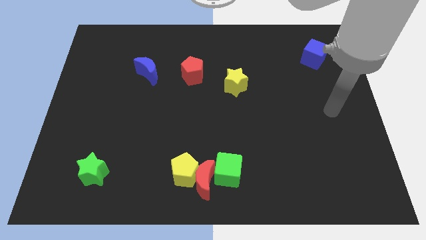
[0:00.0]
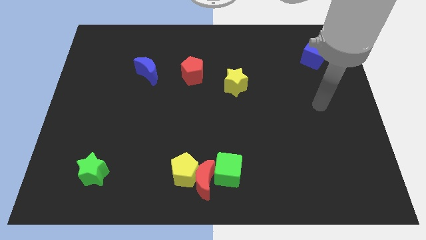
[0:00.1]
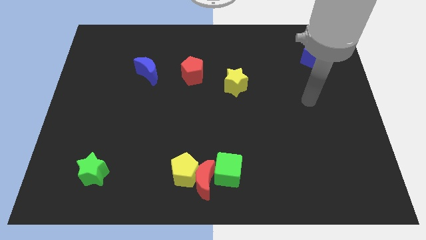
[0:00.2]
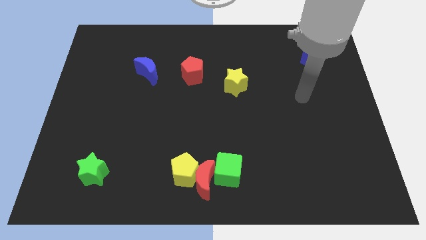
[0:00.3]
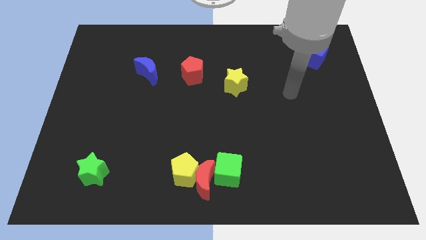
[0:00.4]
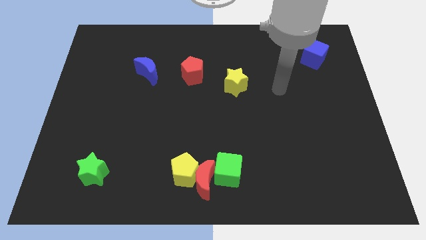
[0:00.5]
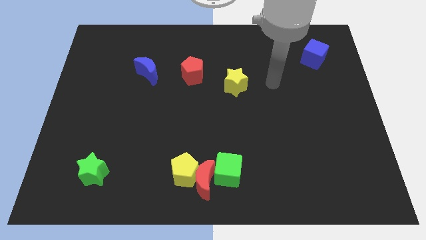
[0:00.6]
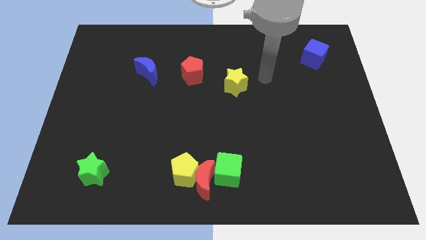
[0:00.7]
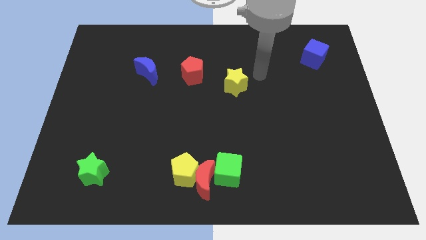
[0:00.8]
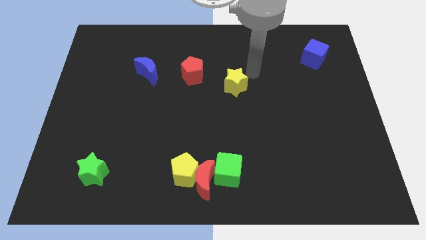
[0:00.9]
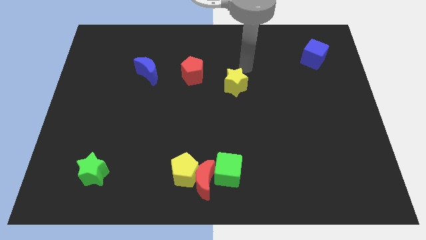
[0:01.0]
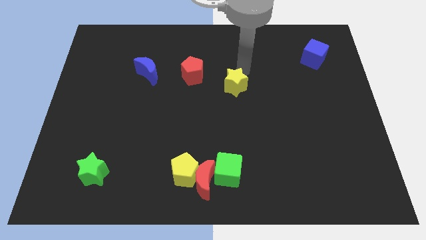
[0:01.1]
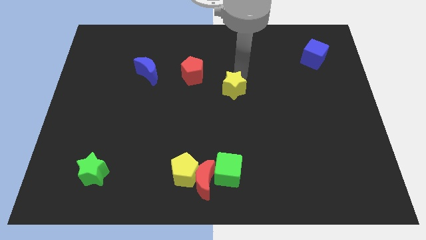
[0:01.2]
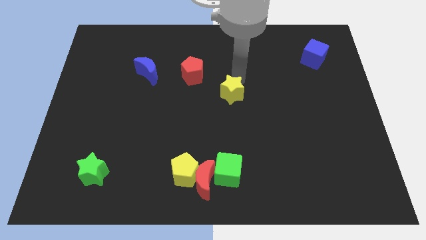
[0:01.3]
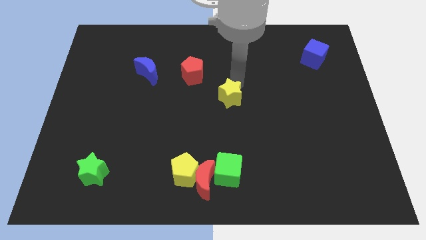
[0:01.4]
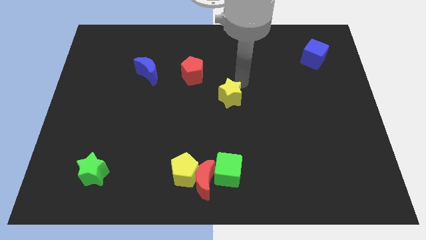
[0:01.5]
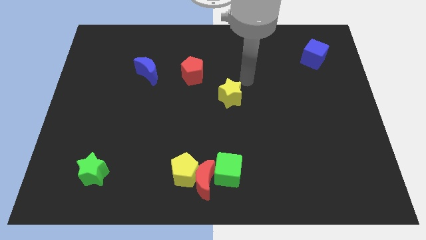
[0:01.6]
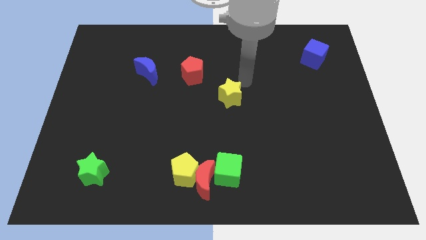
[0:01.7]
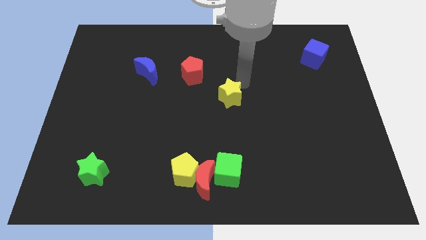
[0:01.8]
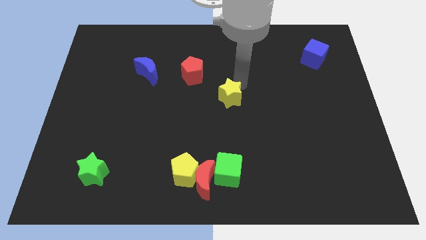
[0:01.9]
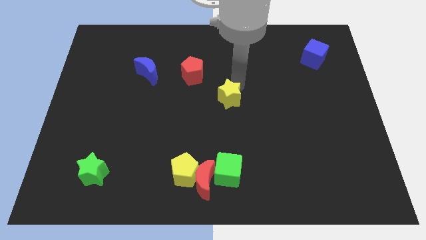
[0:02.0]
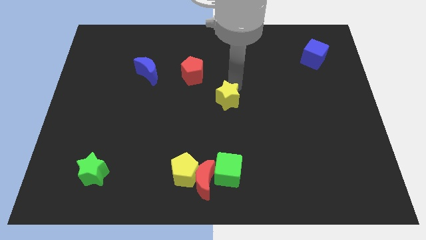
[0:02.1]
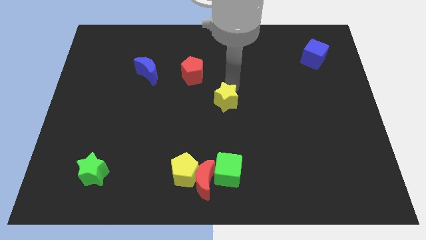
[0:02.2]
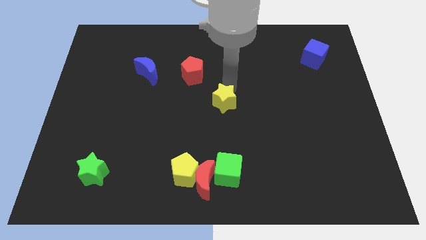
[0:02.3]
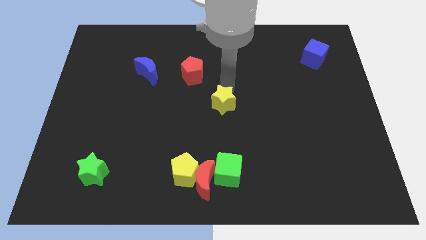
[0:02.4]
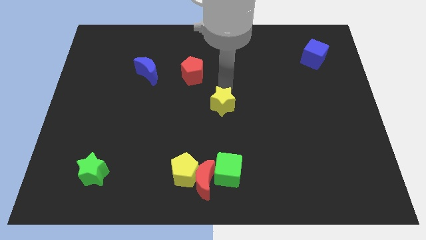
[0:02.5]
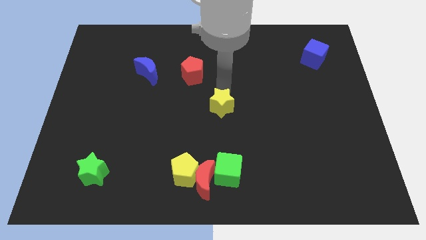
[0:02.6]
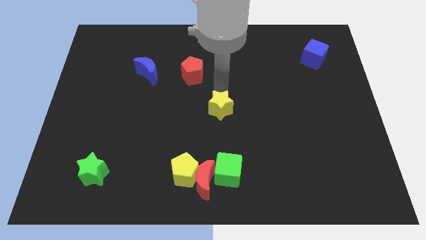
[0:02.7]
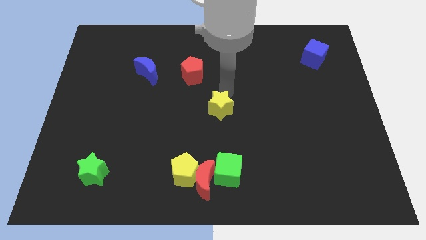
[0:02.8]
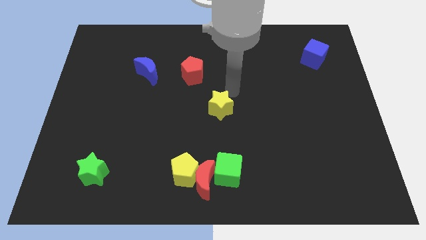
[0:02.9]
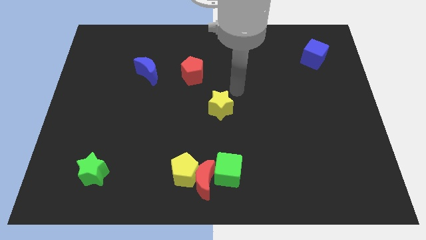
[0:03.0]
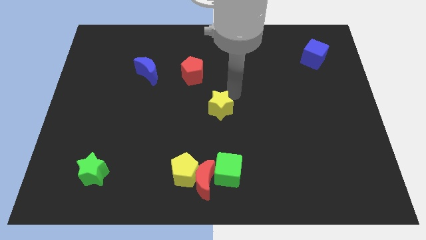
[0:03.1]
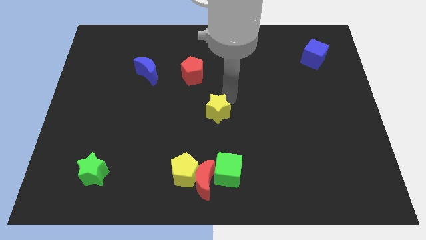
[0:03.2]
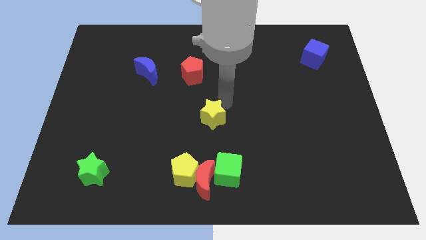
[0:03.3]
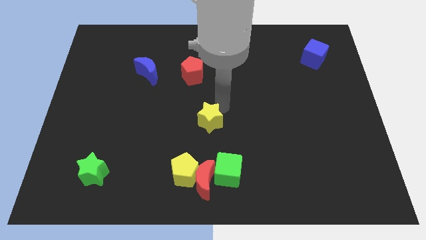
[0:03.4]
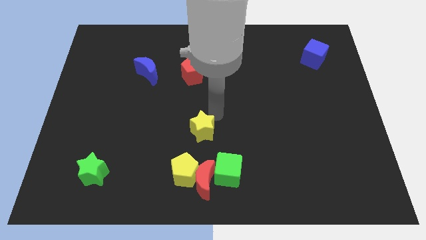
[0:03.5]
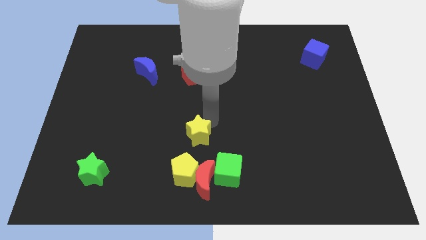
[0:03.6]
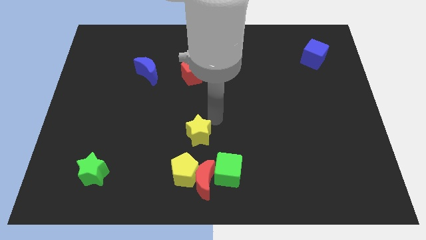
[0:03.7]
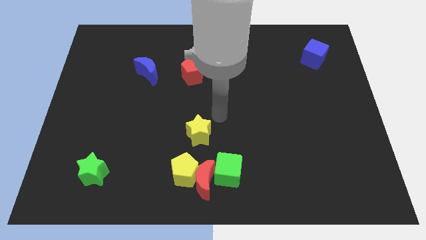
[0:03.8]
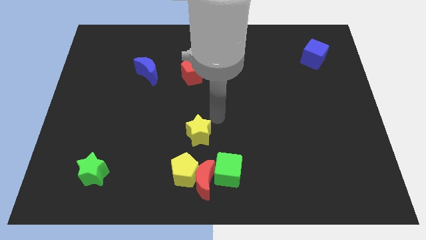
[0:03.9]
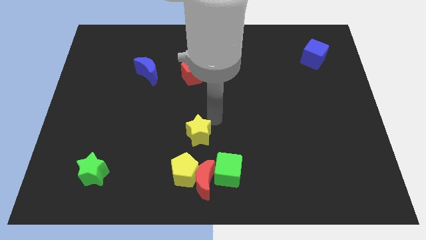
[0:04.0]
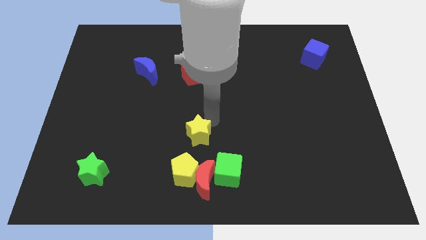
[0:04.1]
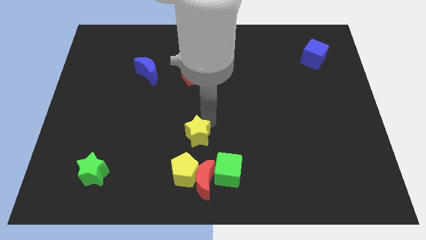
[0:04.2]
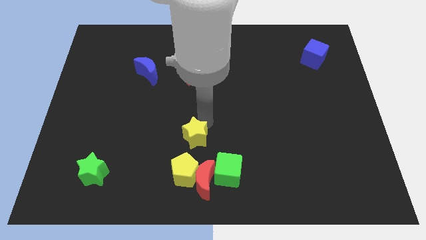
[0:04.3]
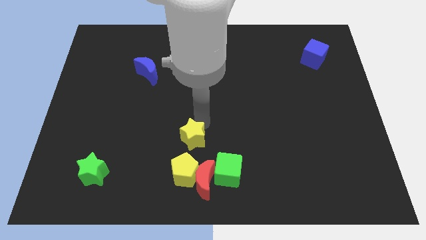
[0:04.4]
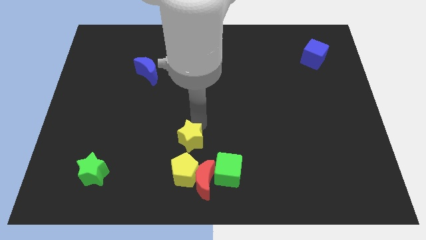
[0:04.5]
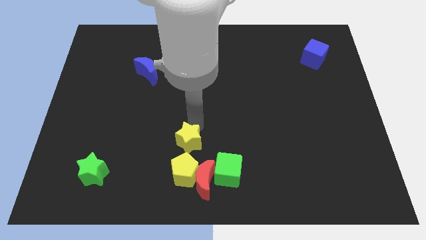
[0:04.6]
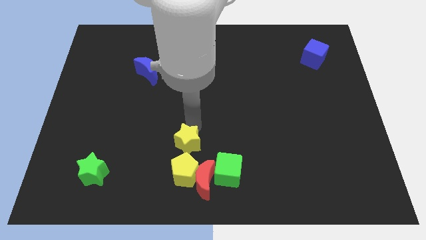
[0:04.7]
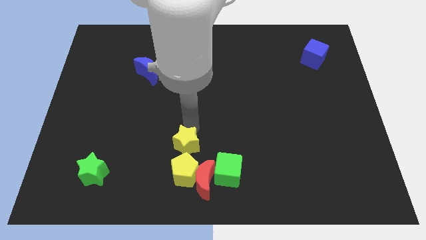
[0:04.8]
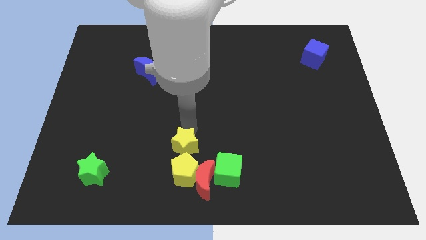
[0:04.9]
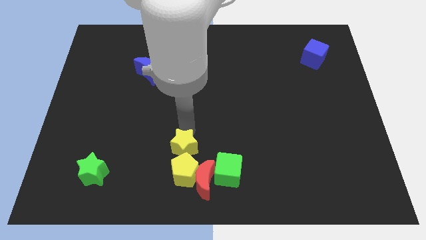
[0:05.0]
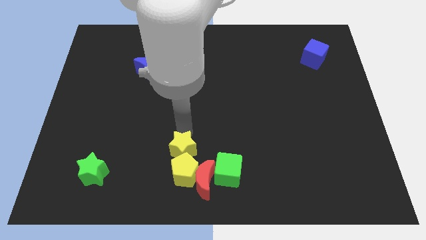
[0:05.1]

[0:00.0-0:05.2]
slide the yellow star to the yellow pentagon

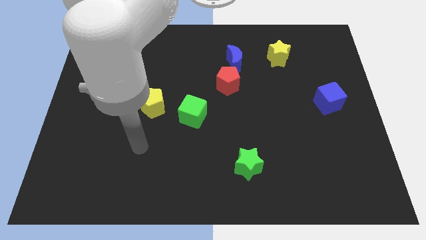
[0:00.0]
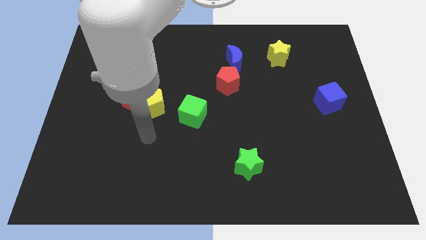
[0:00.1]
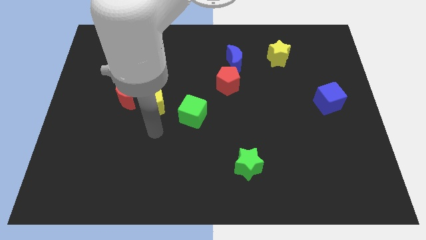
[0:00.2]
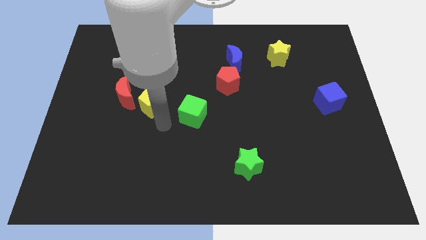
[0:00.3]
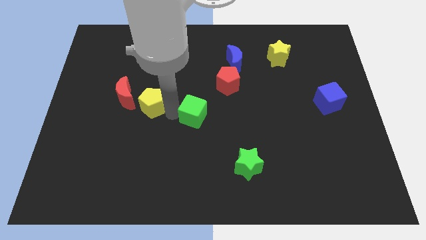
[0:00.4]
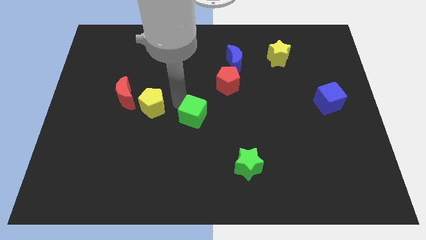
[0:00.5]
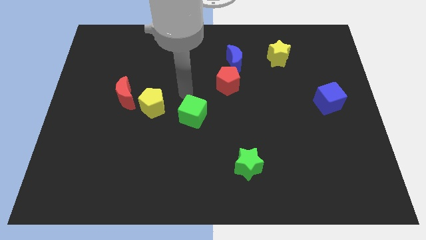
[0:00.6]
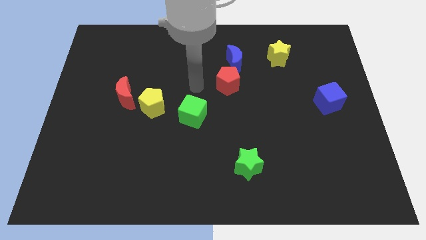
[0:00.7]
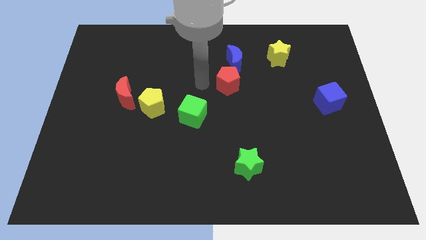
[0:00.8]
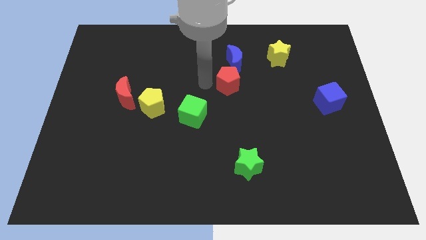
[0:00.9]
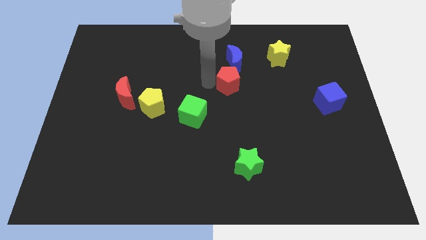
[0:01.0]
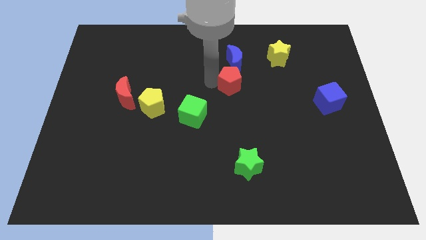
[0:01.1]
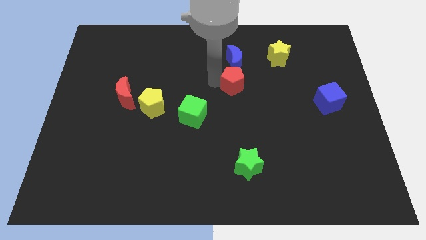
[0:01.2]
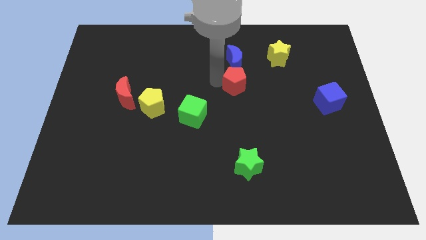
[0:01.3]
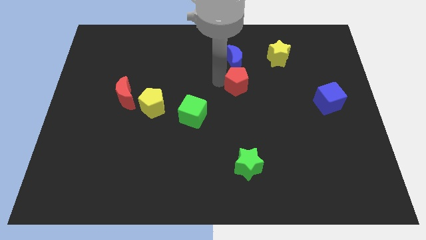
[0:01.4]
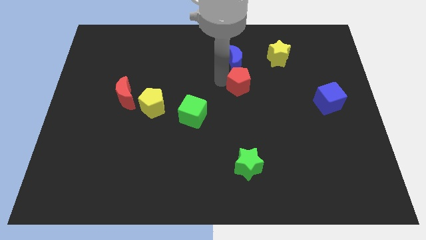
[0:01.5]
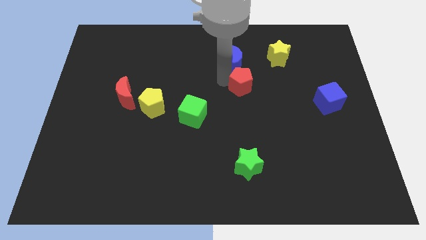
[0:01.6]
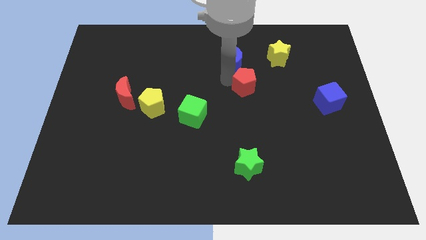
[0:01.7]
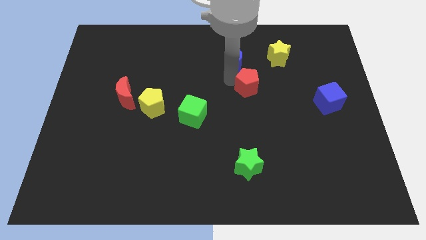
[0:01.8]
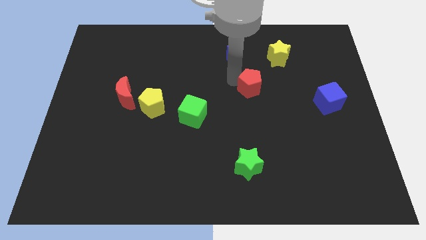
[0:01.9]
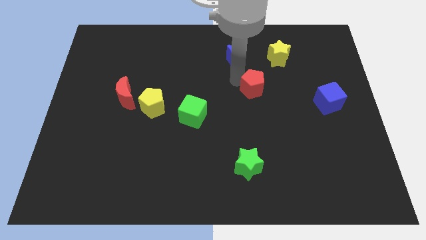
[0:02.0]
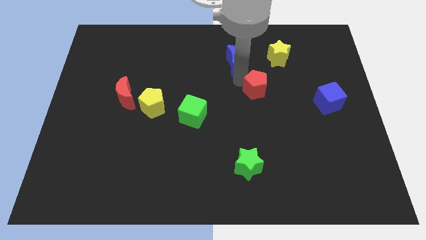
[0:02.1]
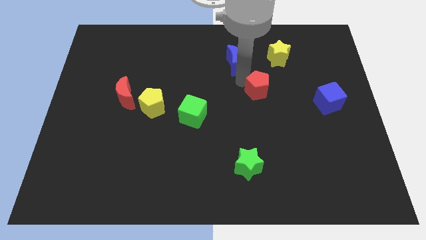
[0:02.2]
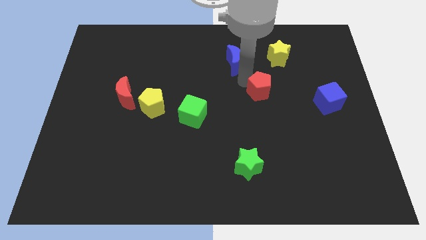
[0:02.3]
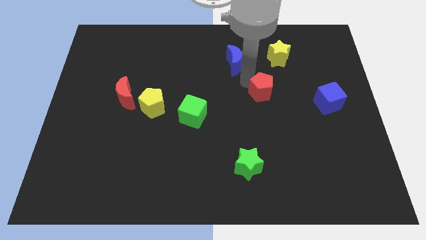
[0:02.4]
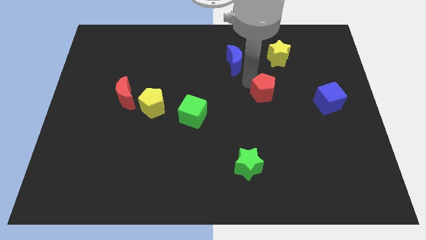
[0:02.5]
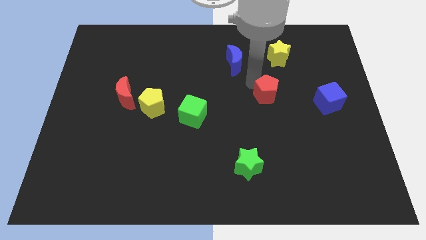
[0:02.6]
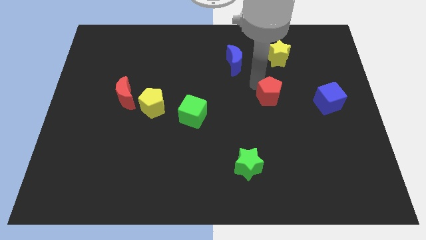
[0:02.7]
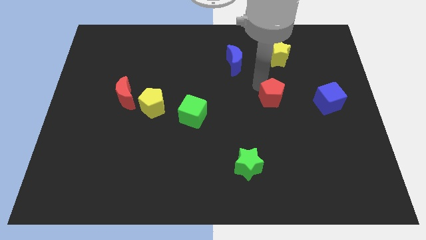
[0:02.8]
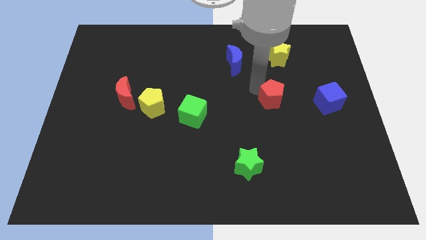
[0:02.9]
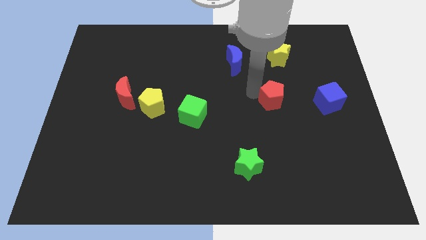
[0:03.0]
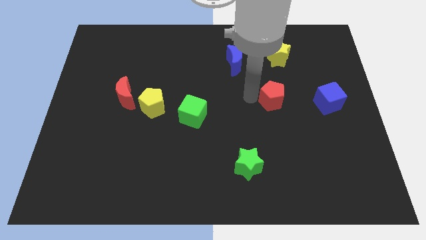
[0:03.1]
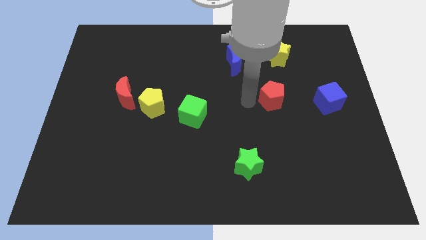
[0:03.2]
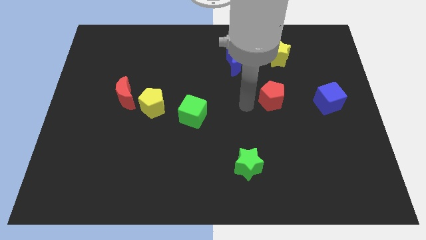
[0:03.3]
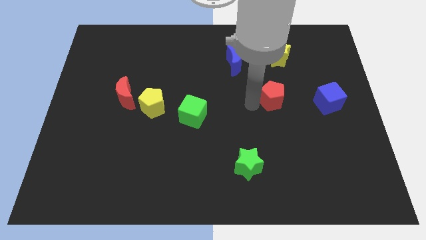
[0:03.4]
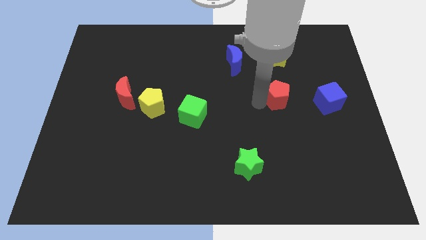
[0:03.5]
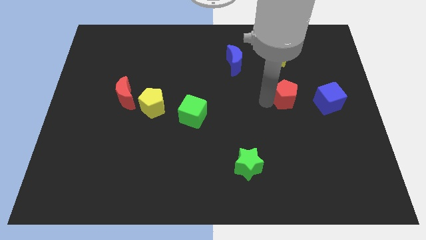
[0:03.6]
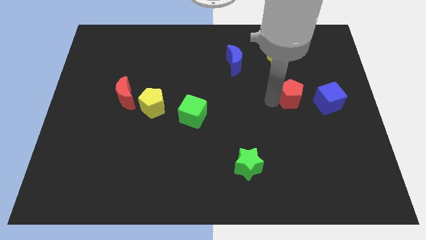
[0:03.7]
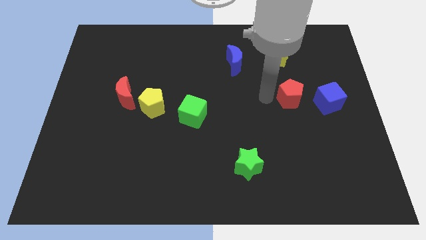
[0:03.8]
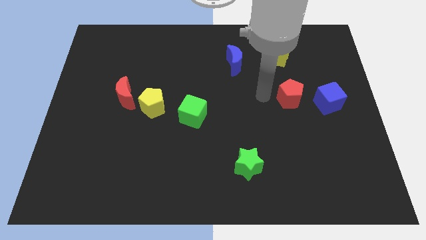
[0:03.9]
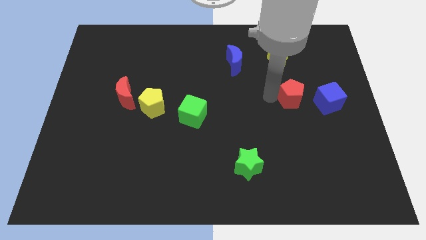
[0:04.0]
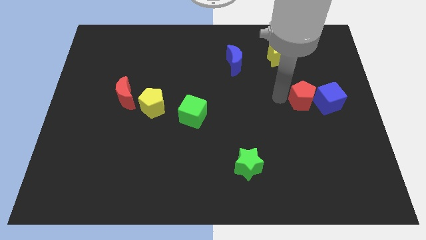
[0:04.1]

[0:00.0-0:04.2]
slide the red pentagon close to the blue cube
